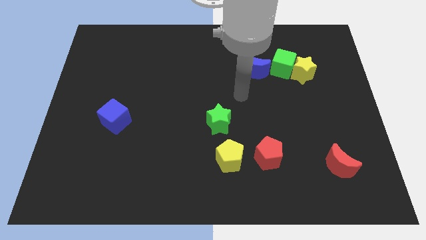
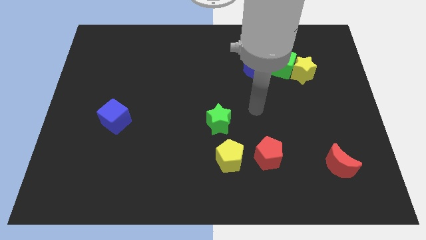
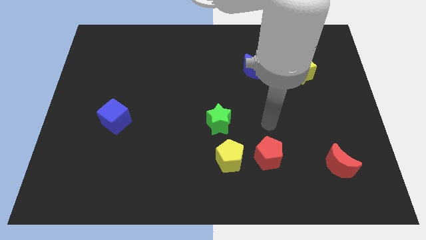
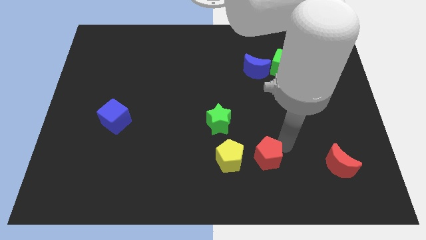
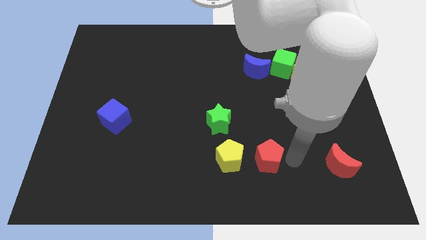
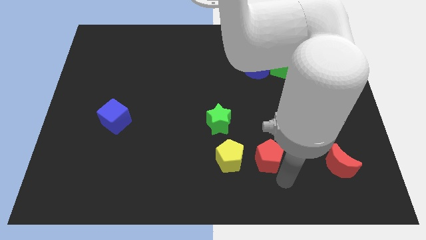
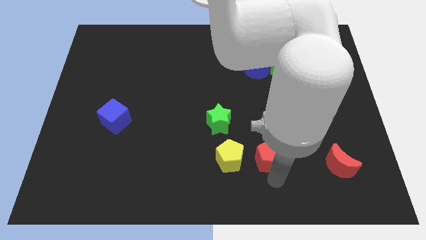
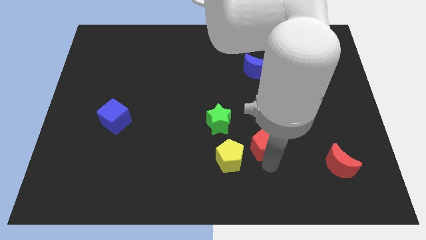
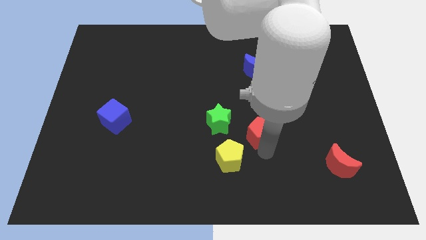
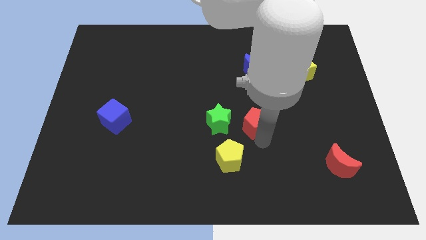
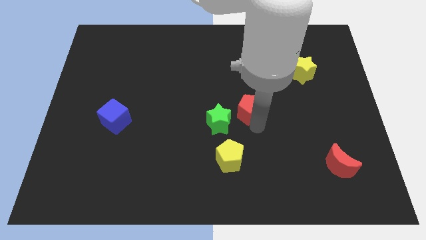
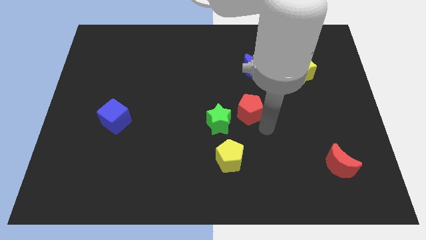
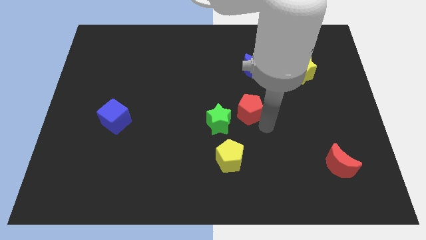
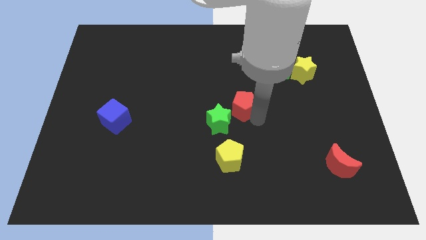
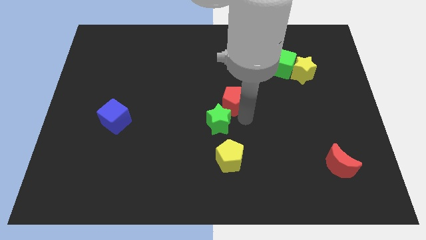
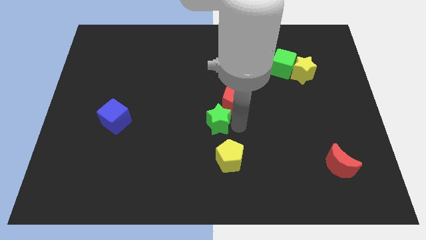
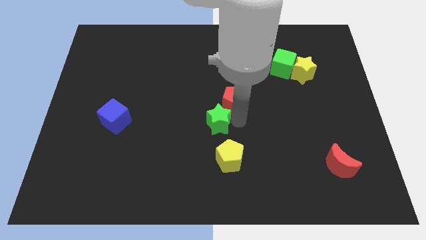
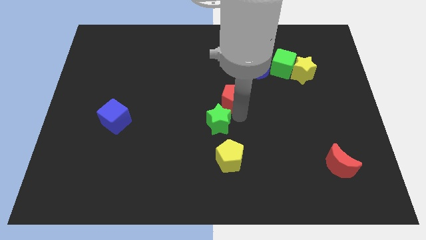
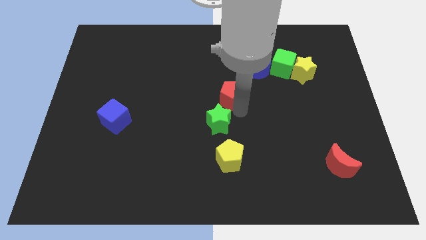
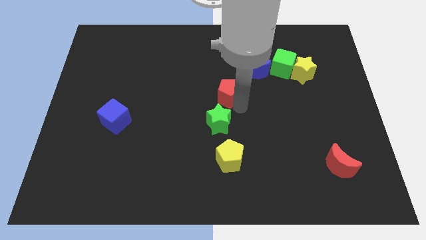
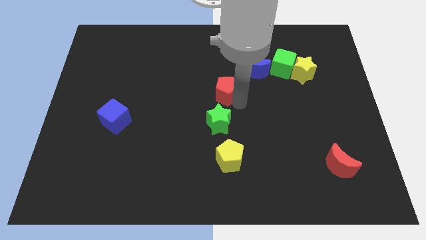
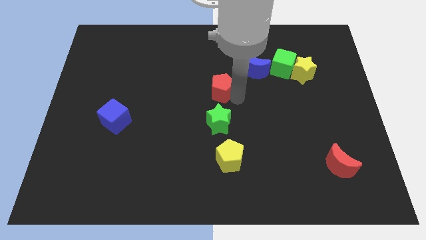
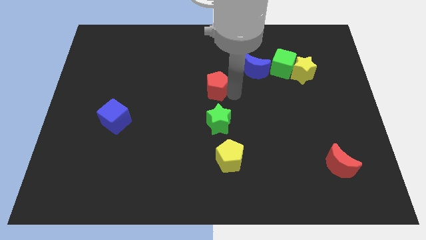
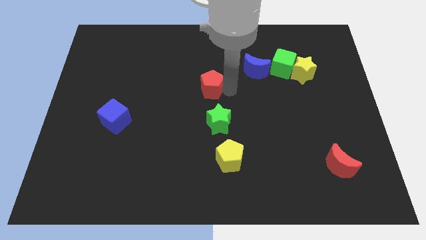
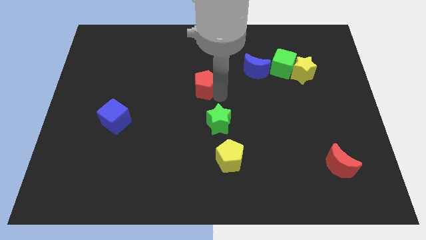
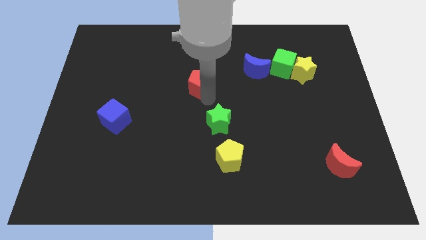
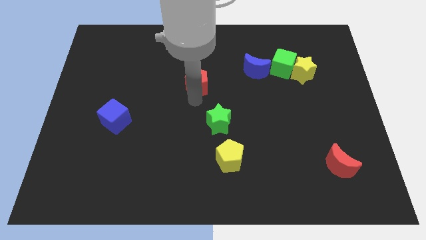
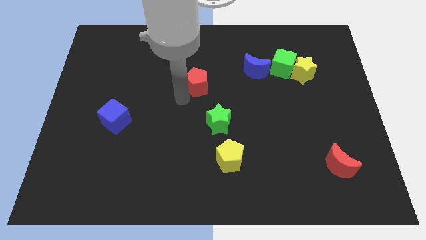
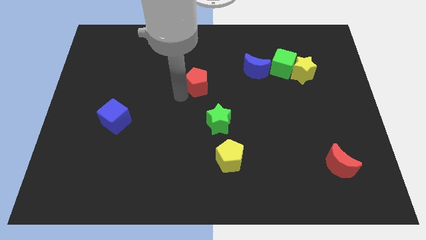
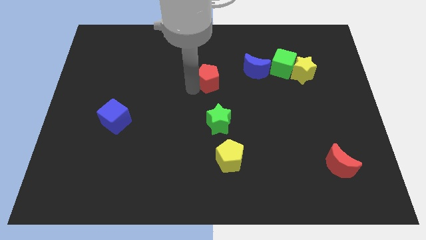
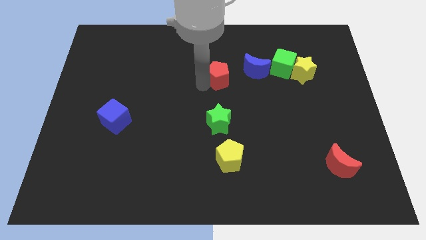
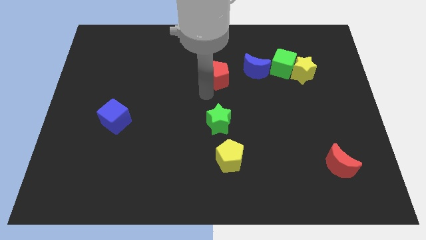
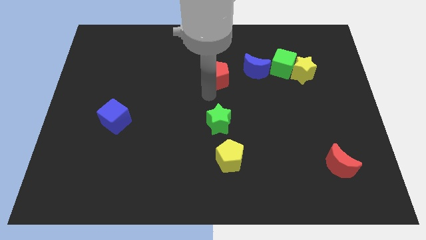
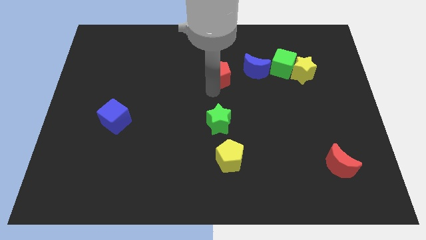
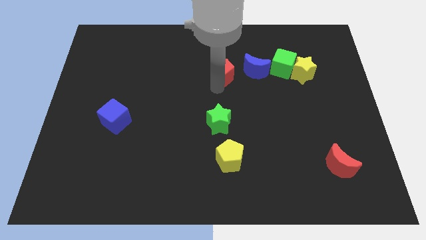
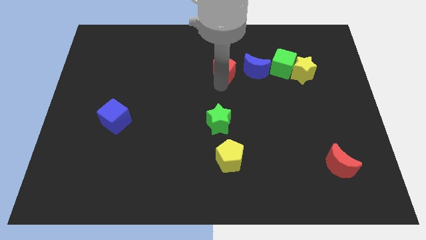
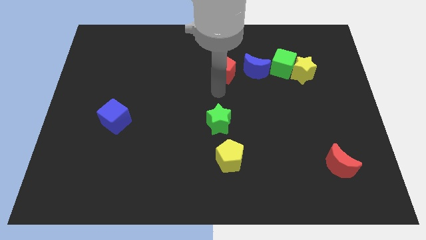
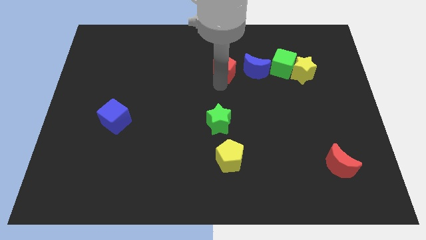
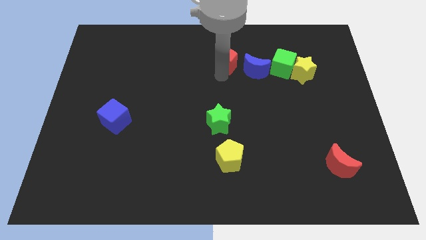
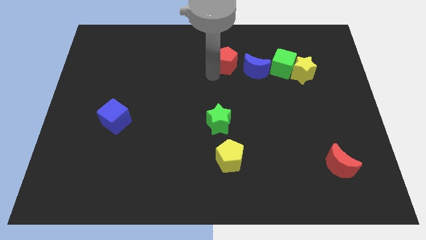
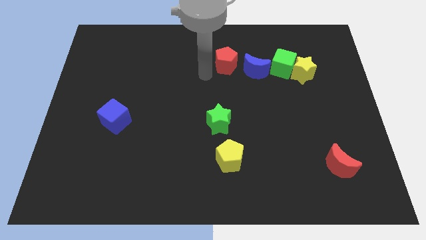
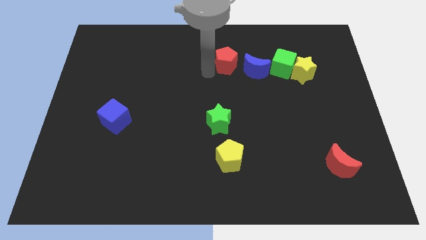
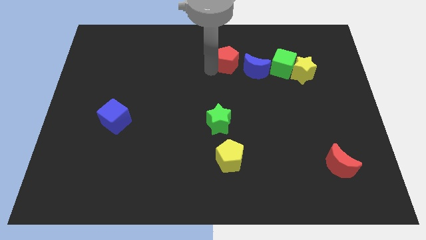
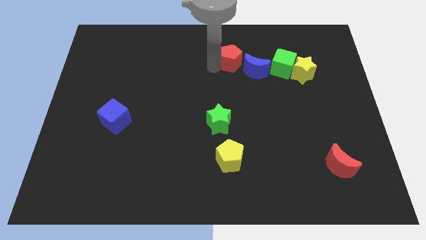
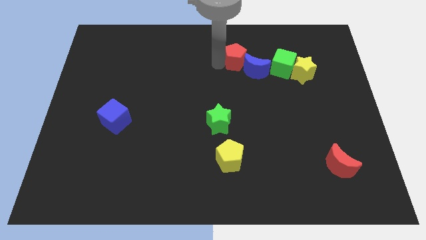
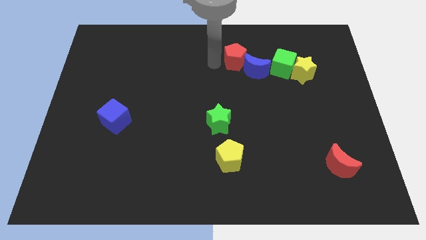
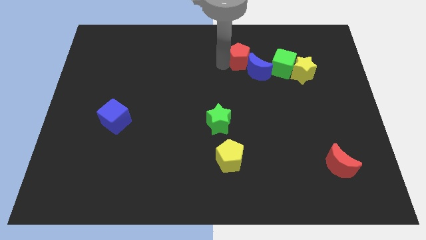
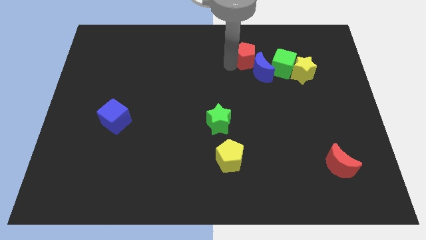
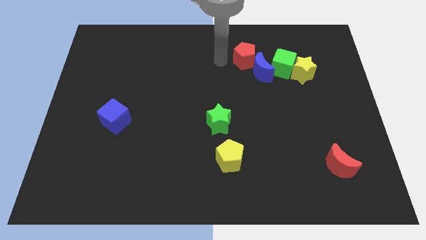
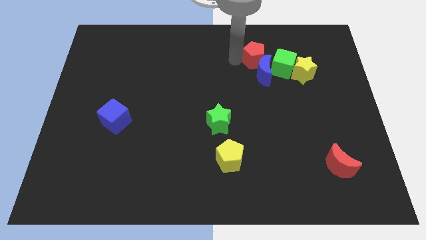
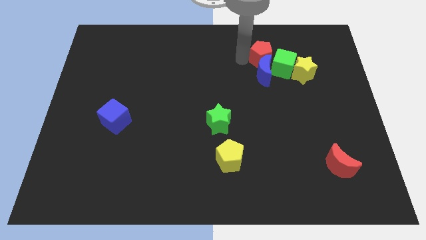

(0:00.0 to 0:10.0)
put the red pentagon to the top right of the blue moon

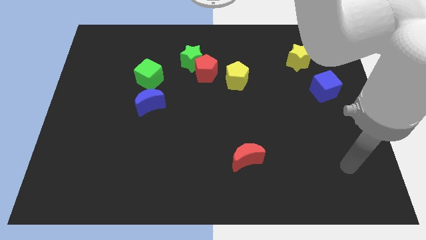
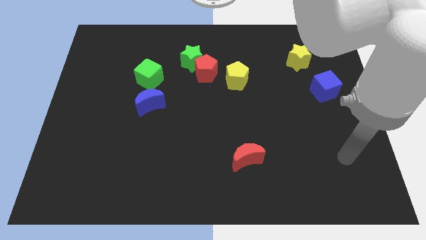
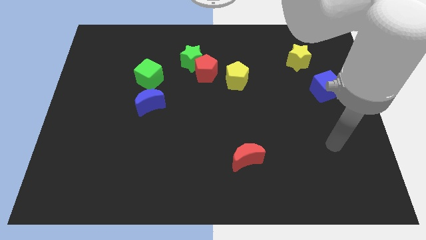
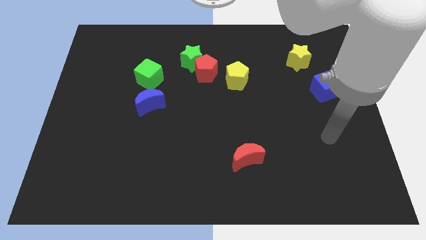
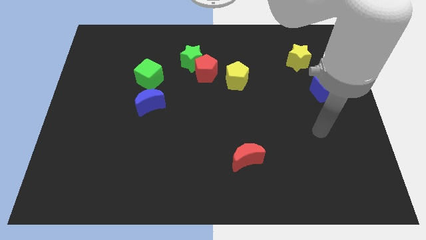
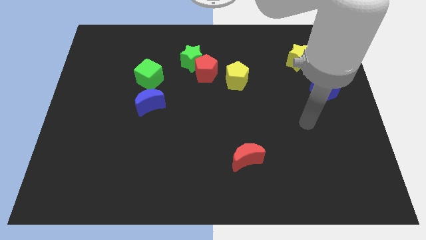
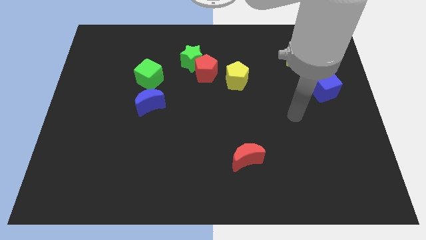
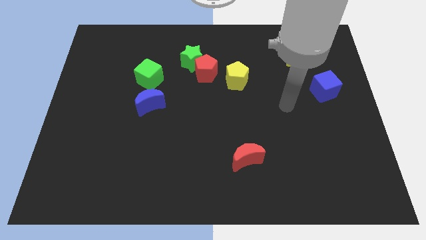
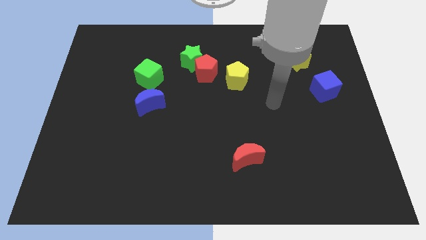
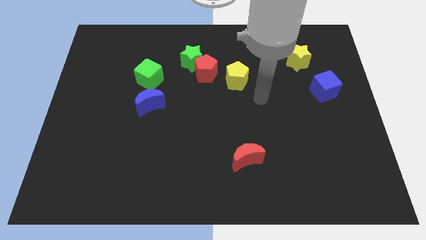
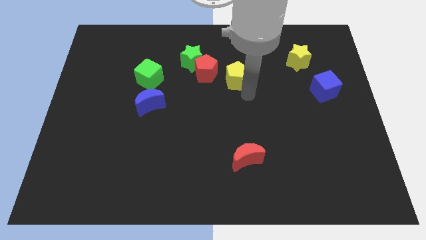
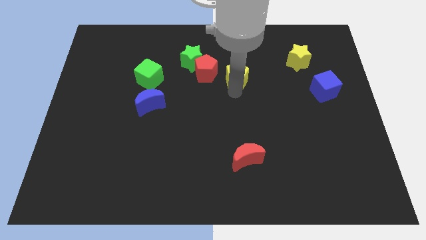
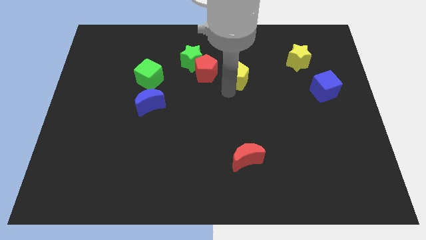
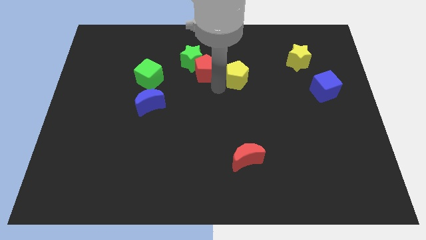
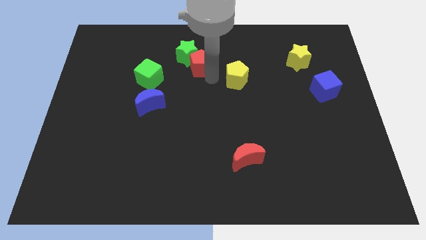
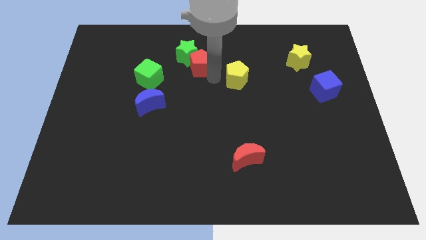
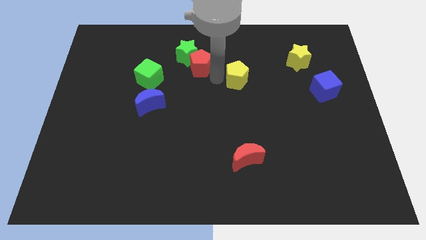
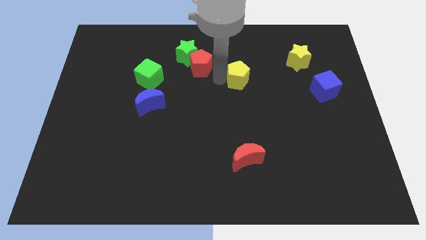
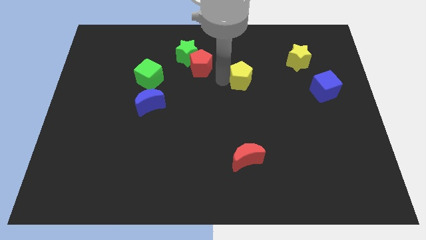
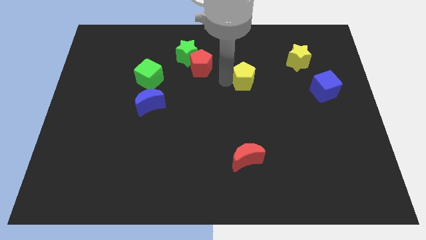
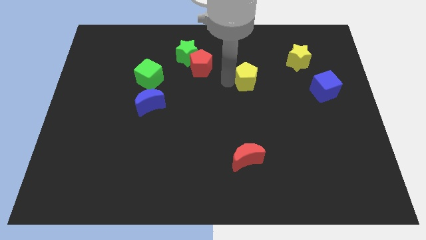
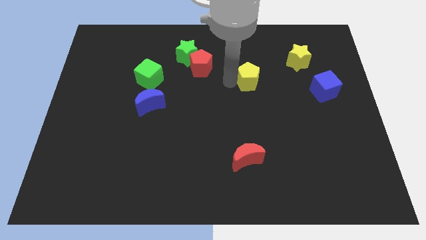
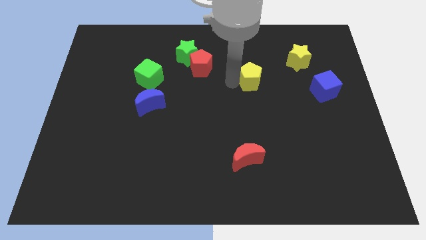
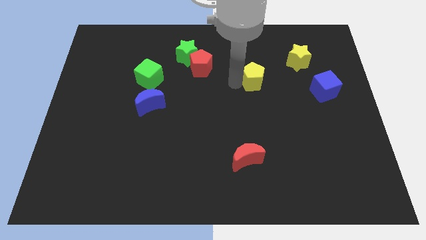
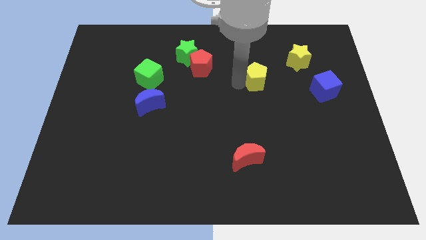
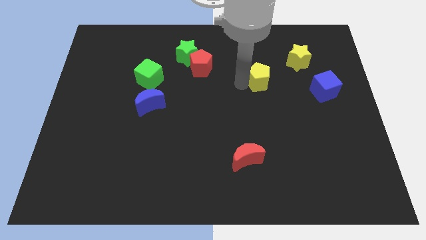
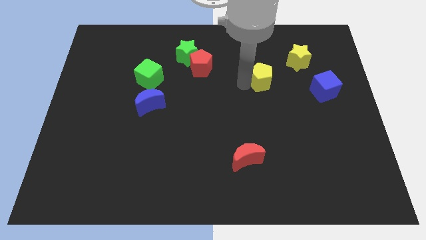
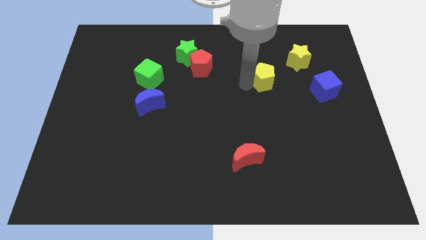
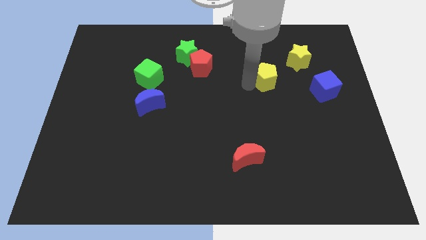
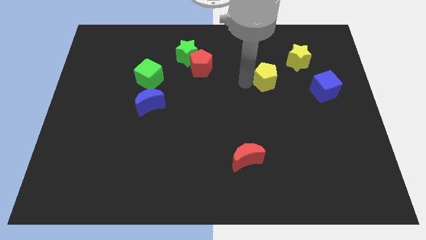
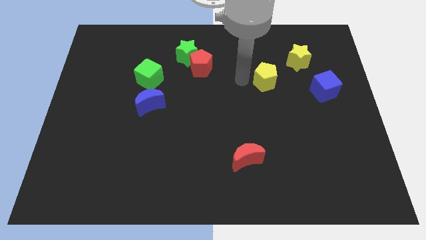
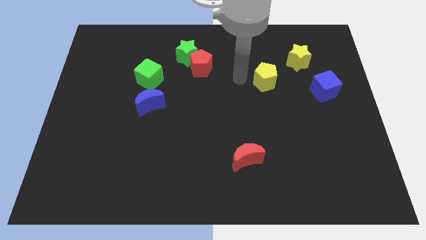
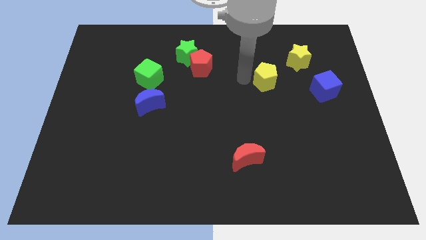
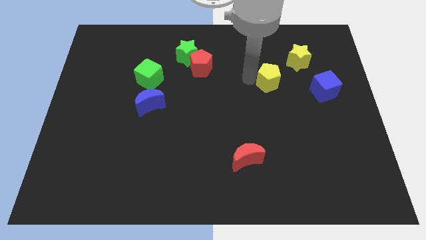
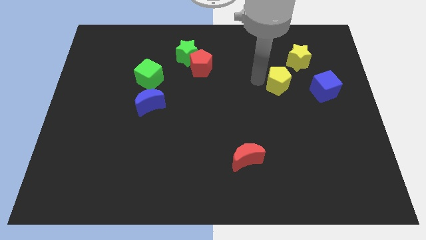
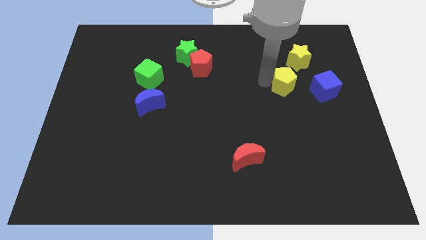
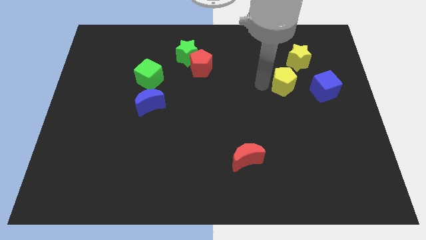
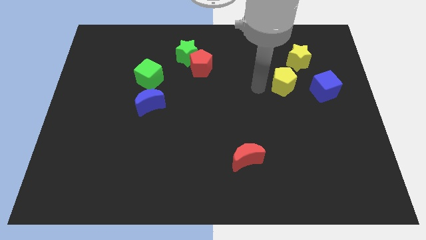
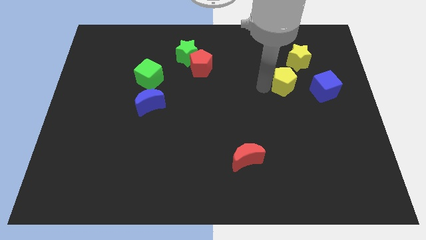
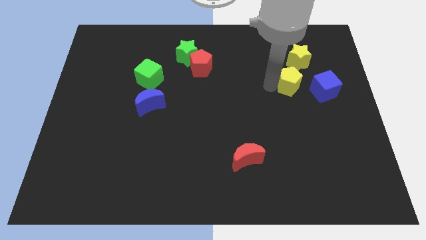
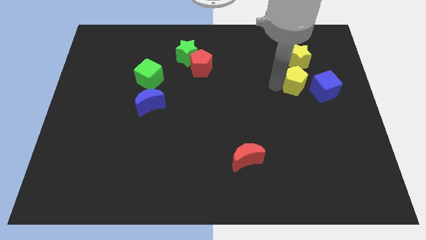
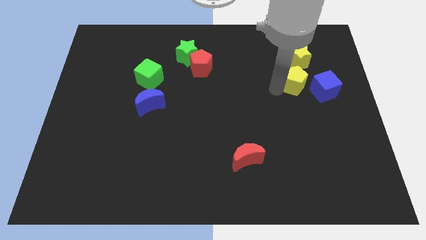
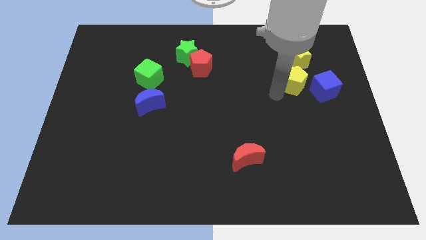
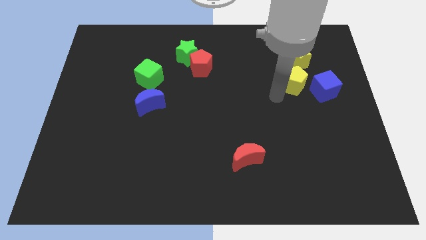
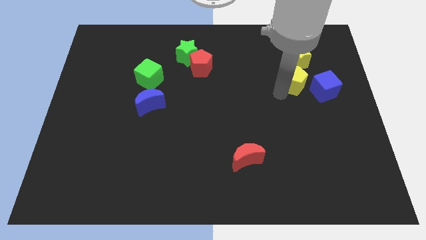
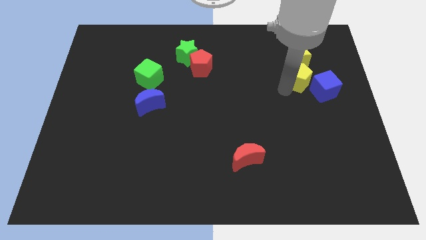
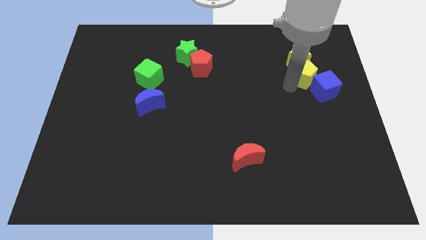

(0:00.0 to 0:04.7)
put the yellow pentagon to the top of the blue cube
